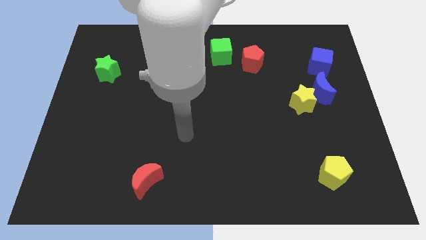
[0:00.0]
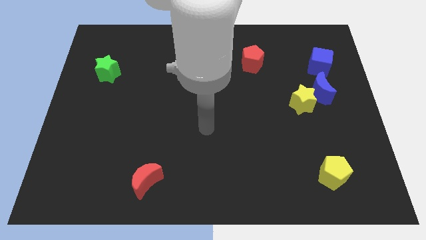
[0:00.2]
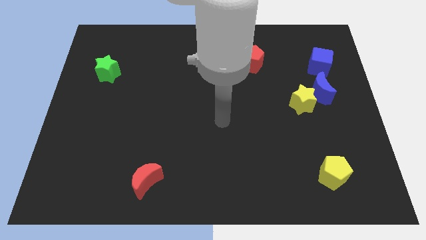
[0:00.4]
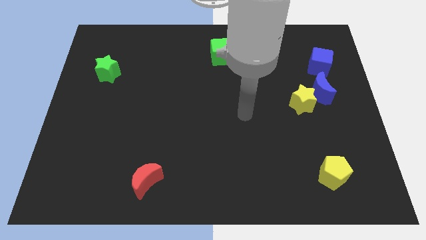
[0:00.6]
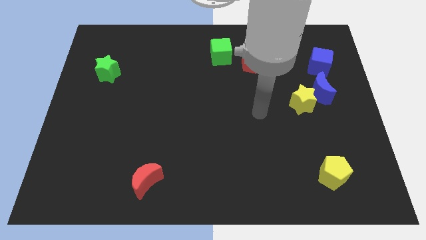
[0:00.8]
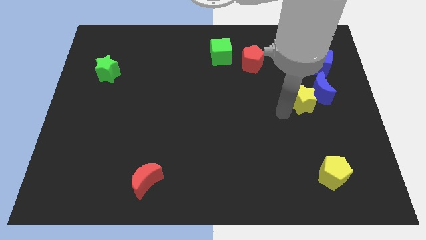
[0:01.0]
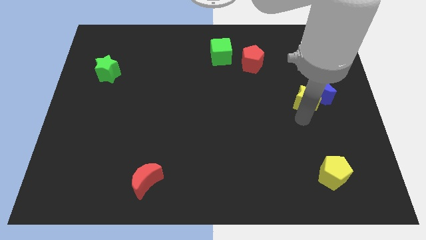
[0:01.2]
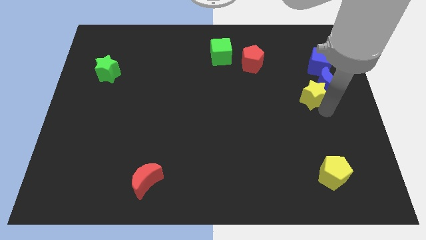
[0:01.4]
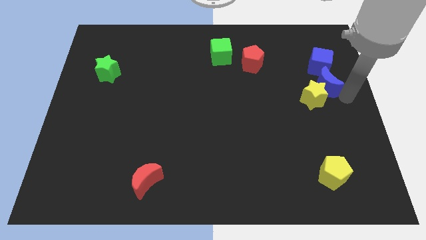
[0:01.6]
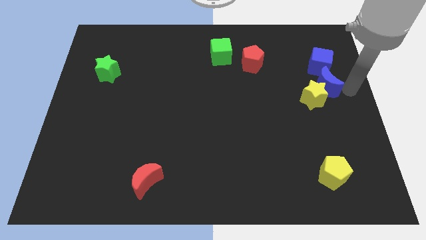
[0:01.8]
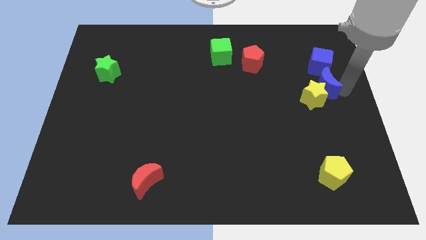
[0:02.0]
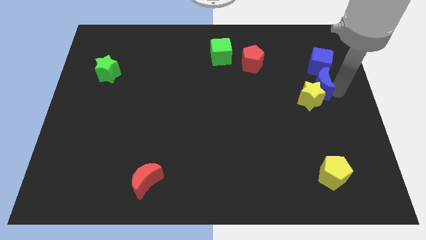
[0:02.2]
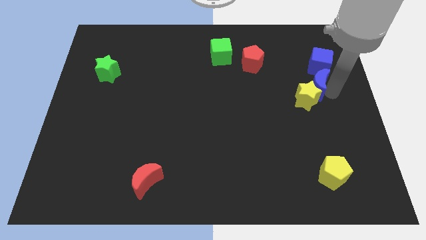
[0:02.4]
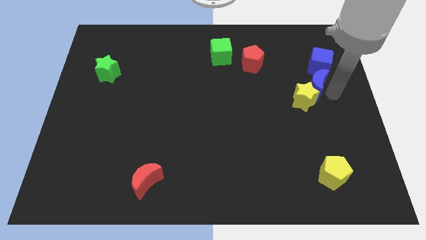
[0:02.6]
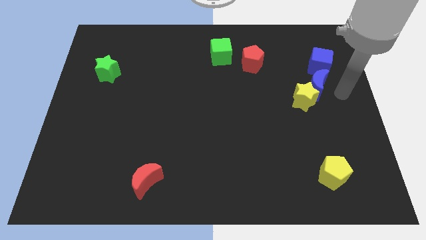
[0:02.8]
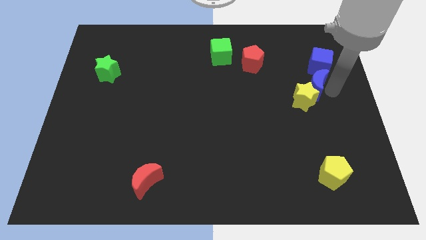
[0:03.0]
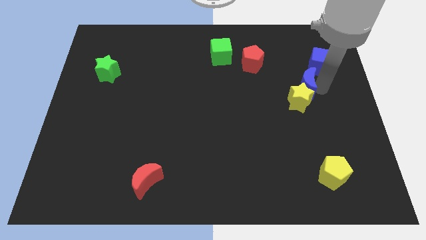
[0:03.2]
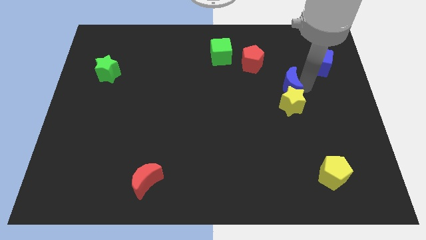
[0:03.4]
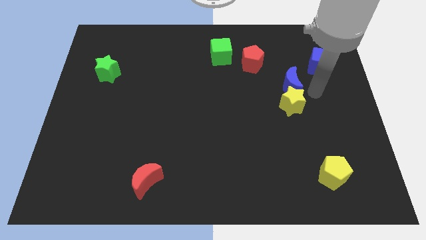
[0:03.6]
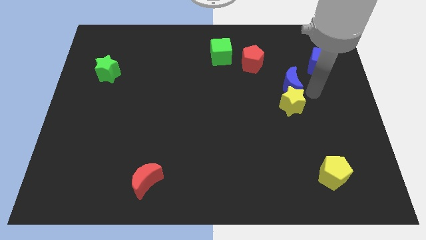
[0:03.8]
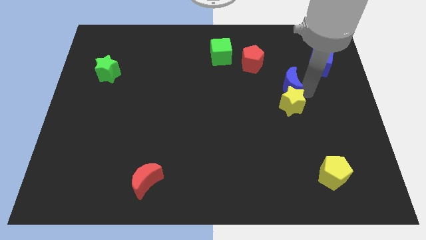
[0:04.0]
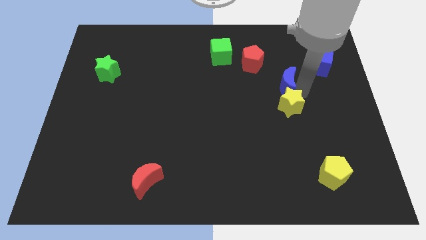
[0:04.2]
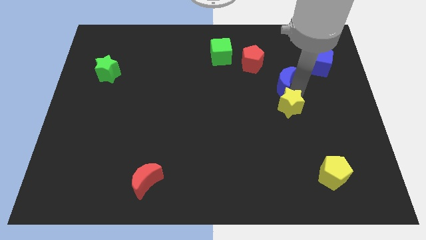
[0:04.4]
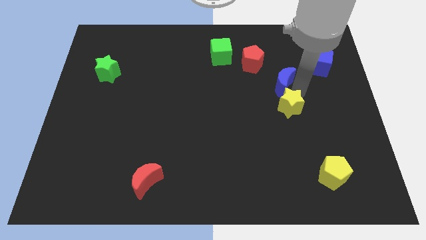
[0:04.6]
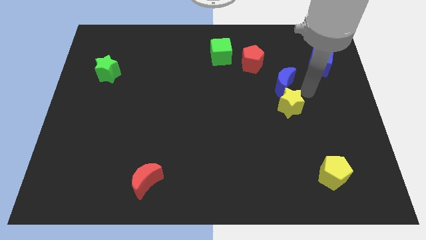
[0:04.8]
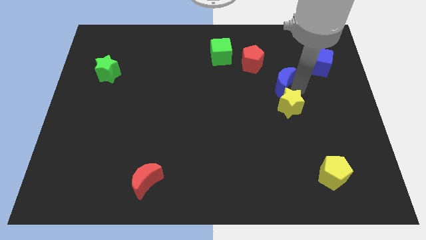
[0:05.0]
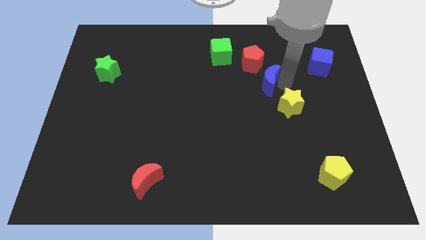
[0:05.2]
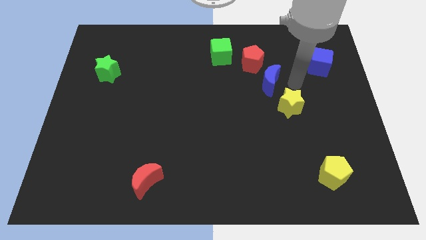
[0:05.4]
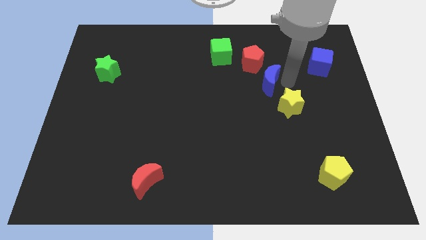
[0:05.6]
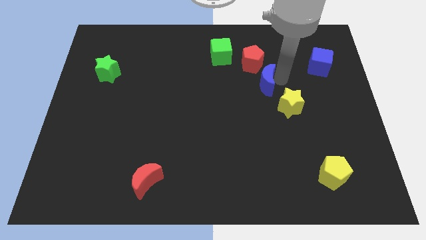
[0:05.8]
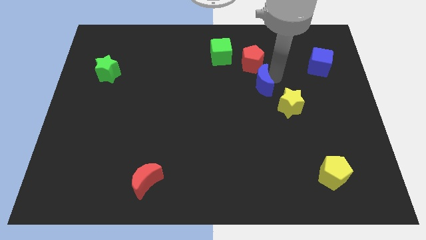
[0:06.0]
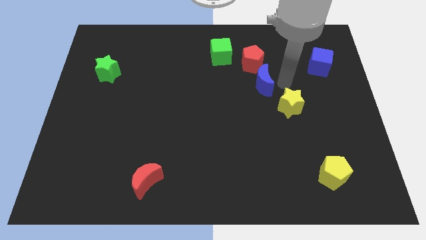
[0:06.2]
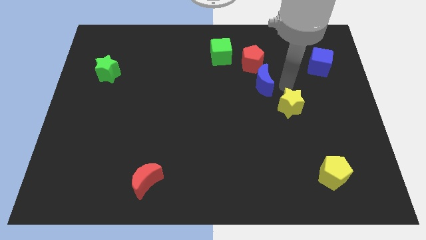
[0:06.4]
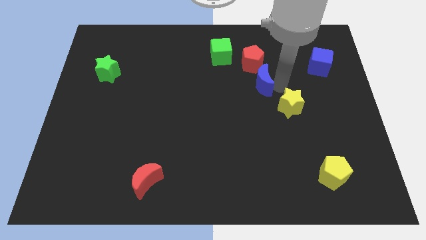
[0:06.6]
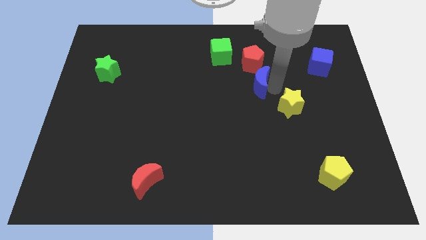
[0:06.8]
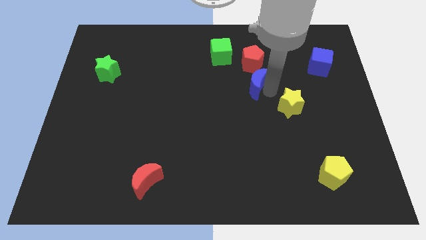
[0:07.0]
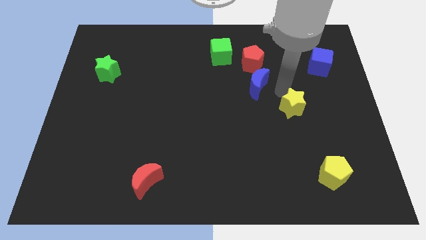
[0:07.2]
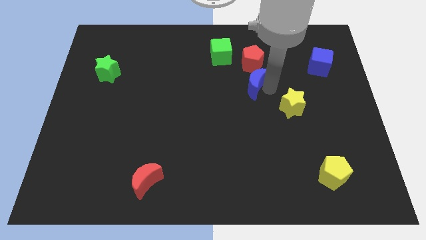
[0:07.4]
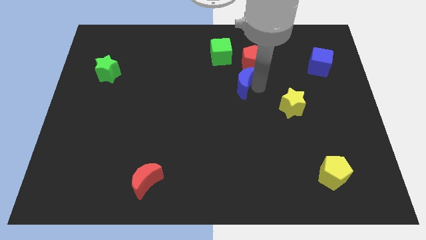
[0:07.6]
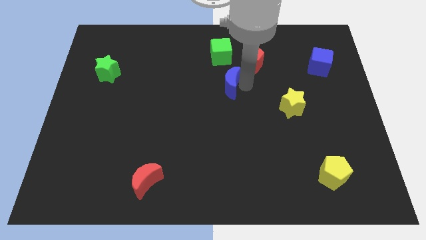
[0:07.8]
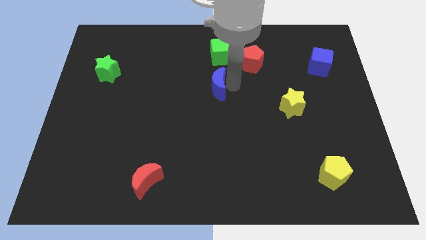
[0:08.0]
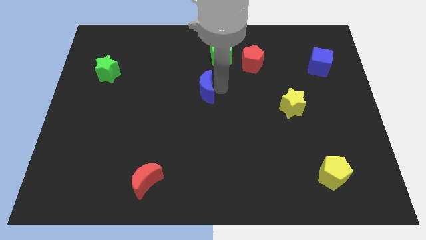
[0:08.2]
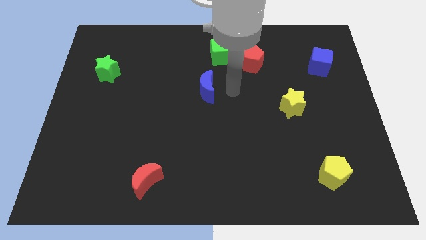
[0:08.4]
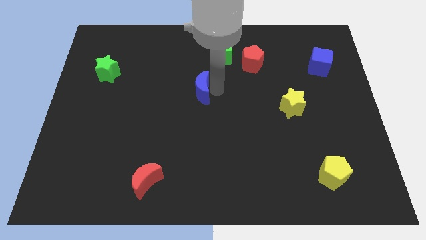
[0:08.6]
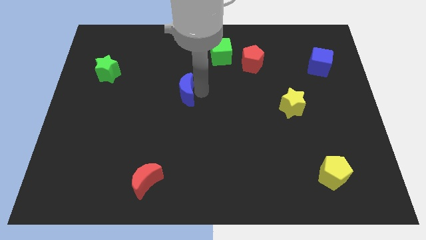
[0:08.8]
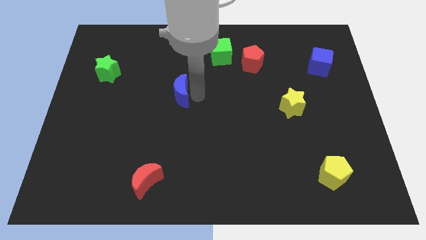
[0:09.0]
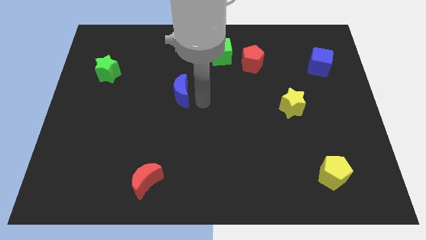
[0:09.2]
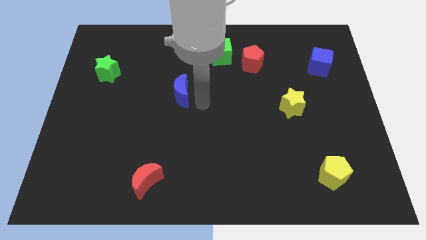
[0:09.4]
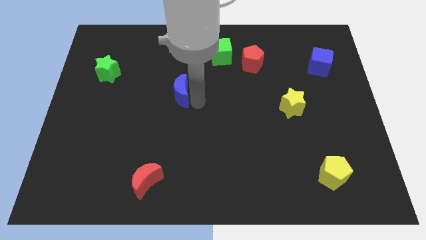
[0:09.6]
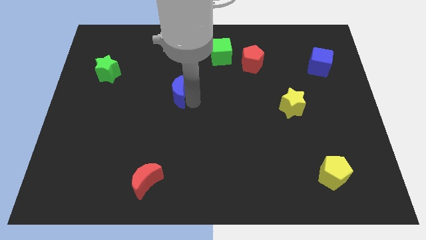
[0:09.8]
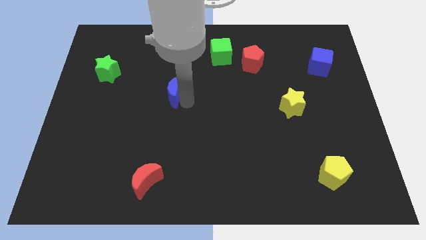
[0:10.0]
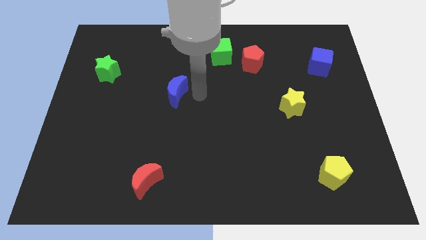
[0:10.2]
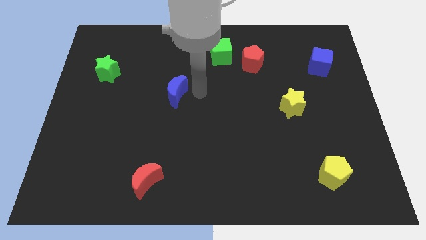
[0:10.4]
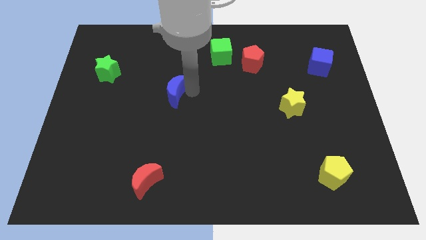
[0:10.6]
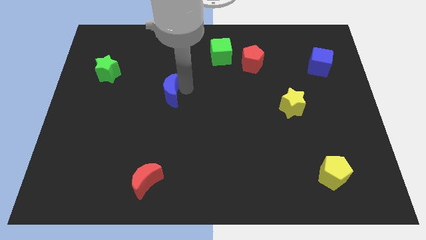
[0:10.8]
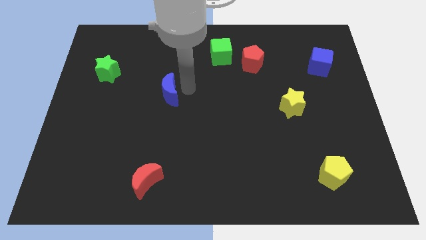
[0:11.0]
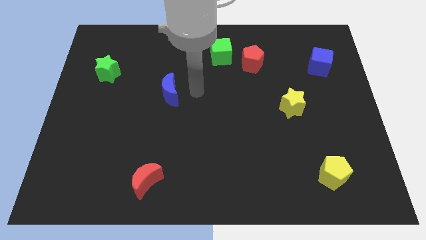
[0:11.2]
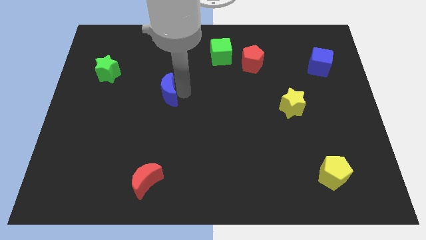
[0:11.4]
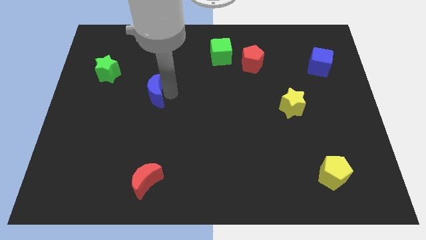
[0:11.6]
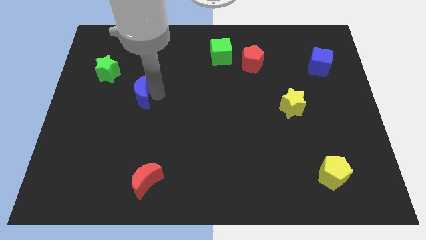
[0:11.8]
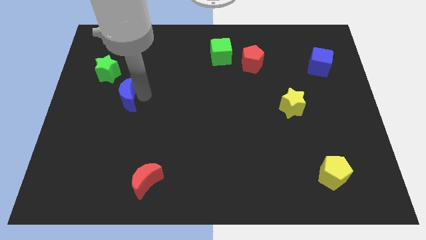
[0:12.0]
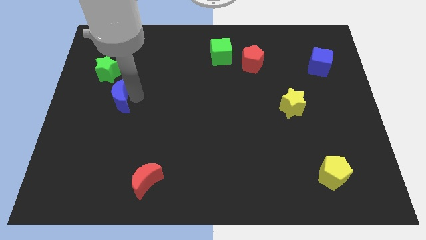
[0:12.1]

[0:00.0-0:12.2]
put the blue moon to the bottom side of the green star
